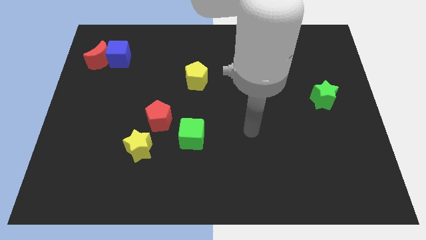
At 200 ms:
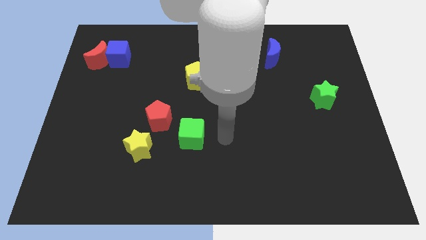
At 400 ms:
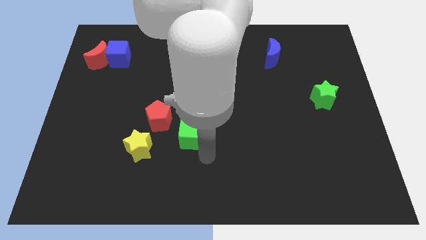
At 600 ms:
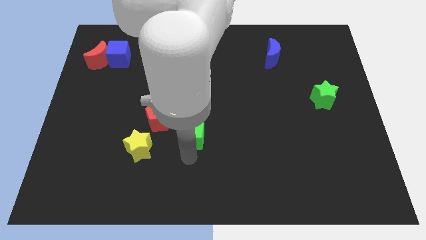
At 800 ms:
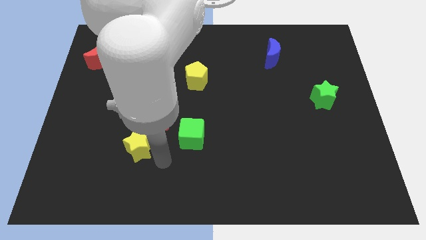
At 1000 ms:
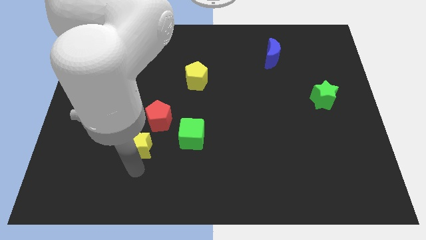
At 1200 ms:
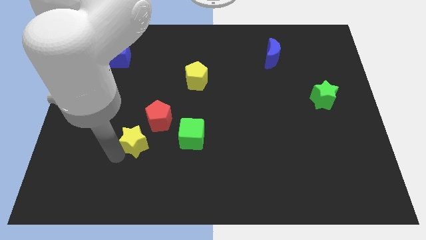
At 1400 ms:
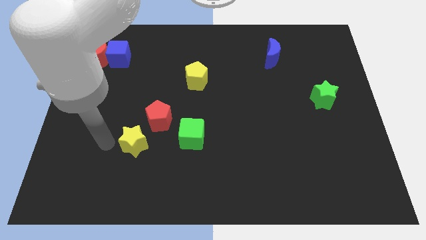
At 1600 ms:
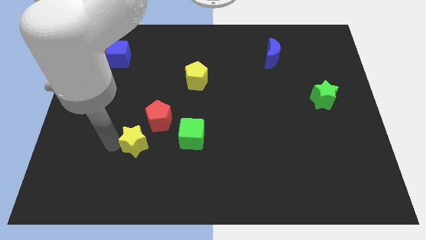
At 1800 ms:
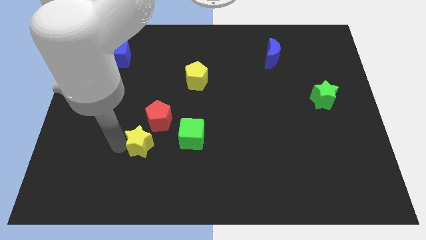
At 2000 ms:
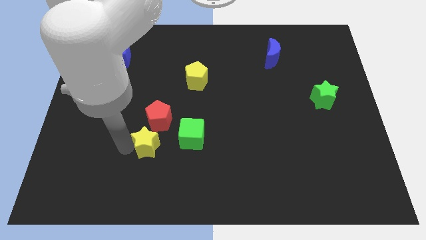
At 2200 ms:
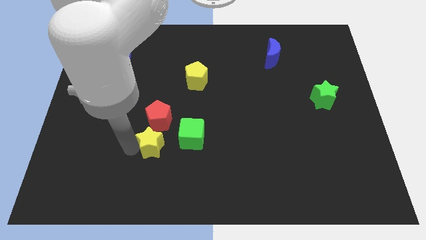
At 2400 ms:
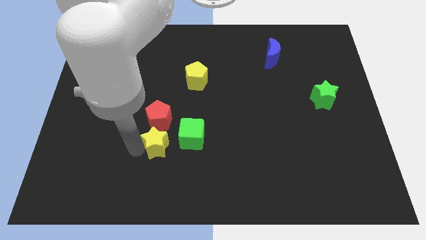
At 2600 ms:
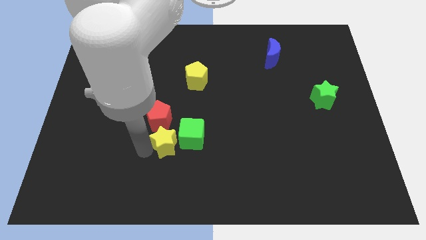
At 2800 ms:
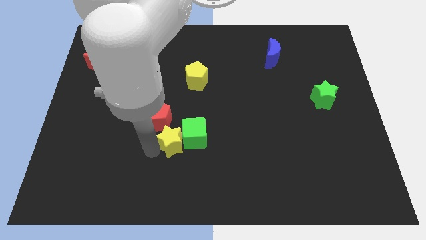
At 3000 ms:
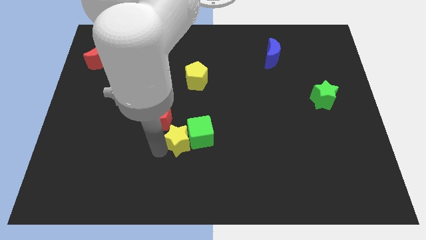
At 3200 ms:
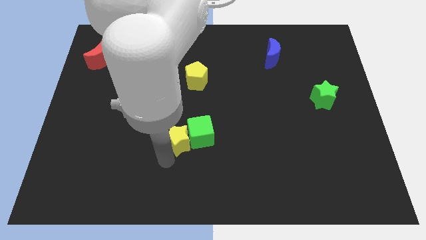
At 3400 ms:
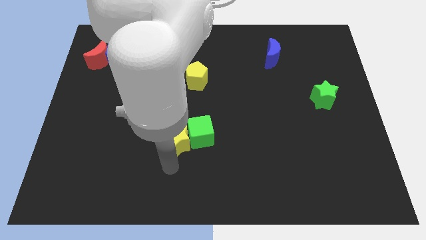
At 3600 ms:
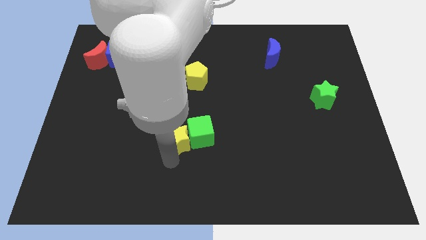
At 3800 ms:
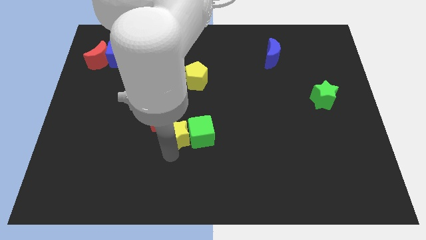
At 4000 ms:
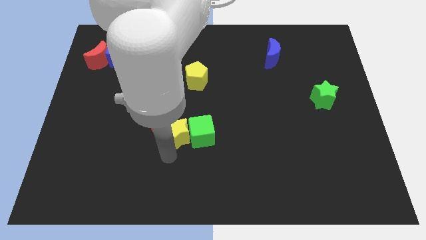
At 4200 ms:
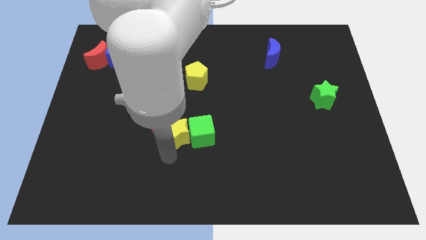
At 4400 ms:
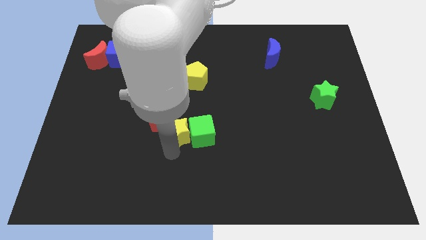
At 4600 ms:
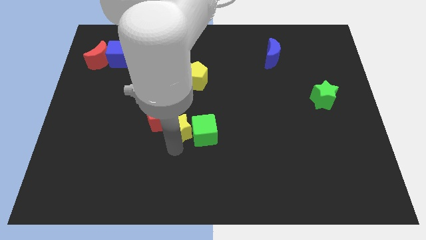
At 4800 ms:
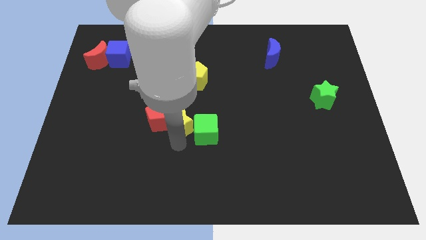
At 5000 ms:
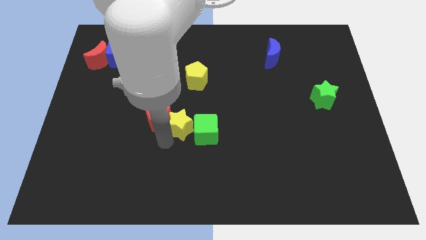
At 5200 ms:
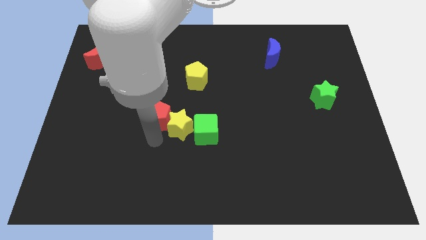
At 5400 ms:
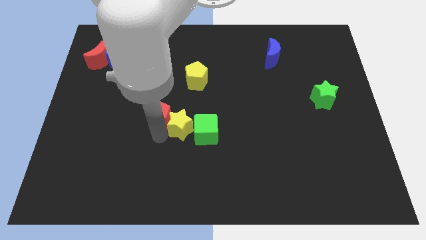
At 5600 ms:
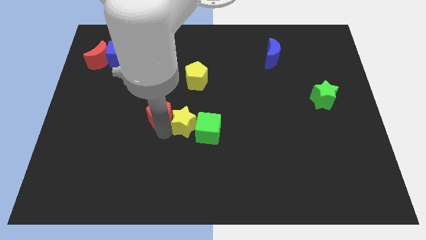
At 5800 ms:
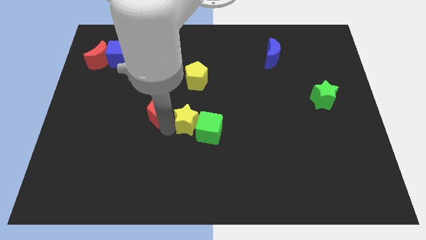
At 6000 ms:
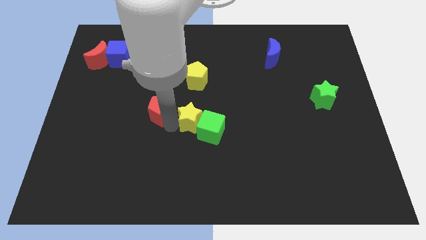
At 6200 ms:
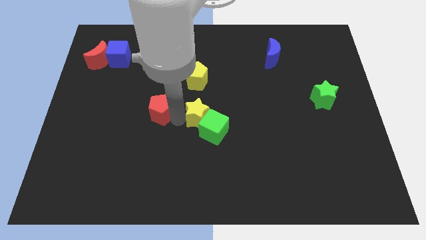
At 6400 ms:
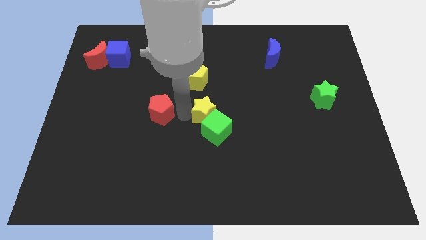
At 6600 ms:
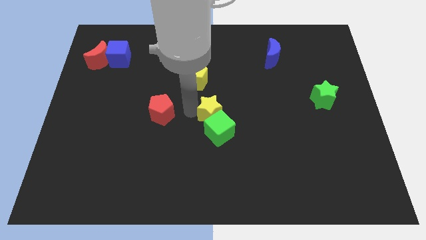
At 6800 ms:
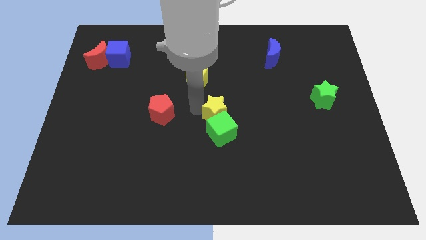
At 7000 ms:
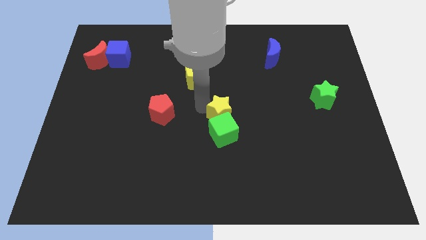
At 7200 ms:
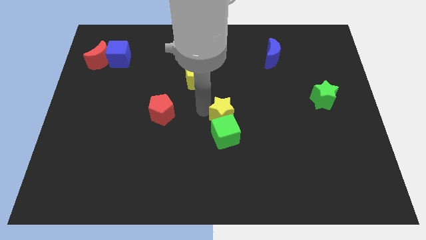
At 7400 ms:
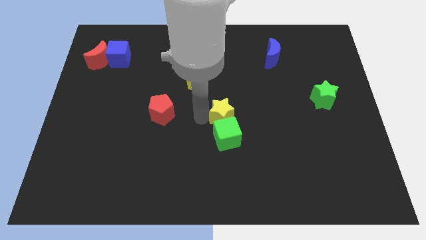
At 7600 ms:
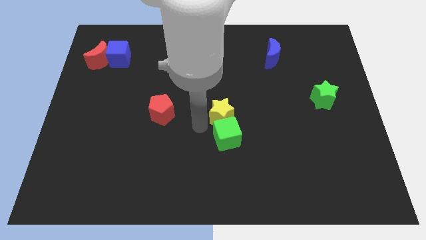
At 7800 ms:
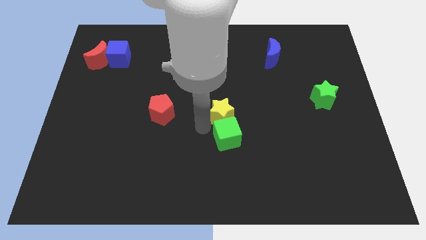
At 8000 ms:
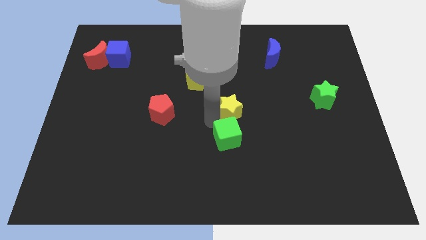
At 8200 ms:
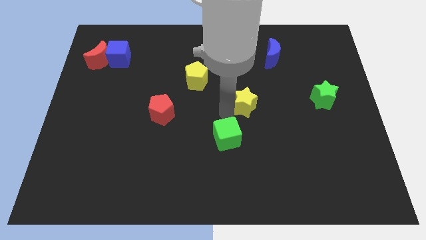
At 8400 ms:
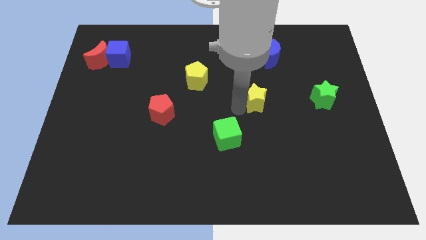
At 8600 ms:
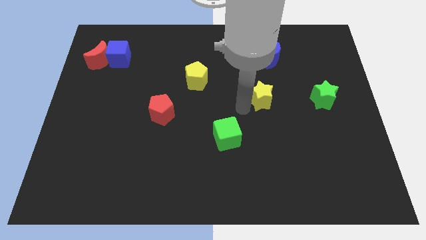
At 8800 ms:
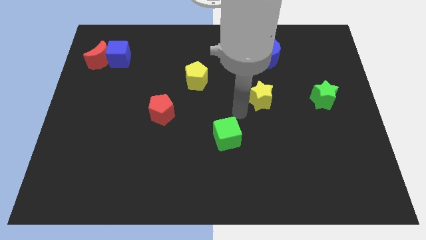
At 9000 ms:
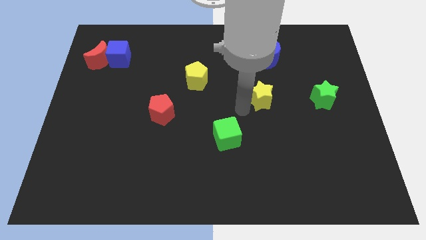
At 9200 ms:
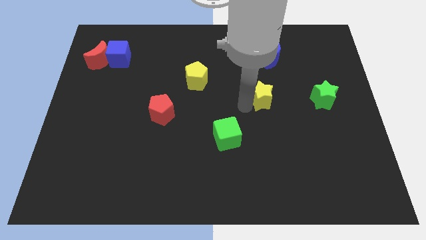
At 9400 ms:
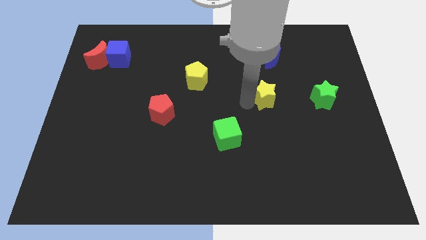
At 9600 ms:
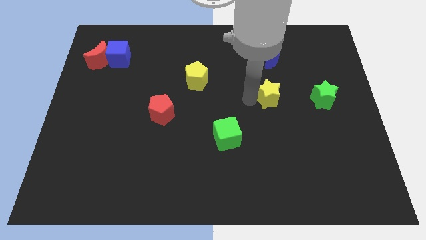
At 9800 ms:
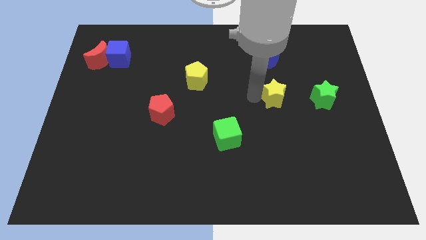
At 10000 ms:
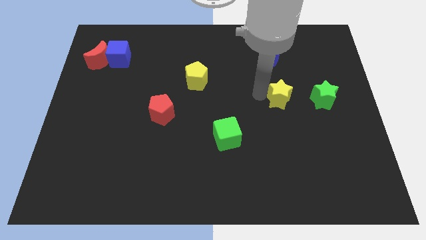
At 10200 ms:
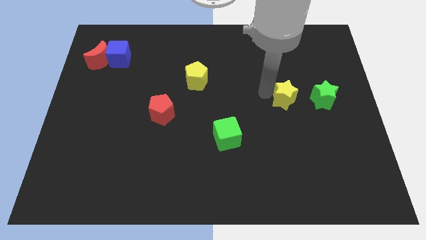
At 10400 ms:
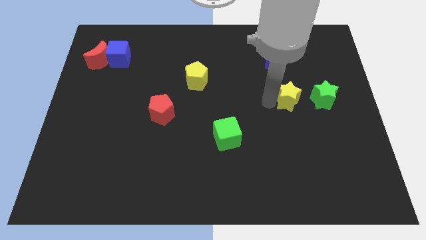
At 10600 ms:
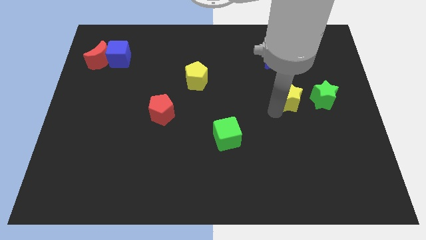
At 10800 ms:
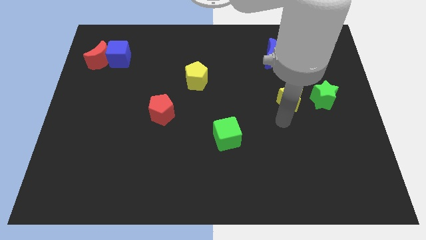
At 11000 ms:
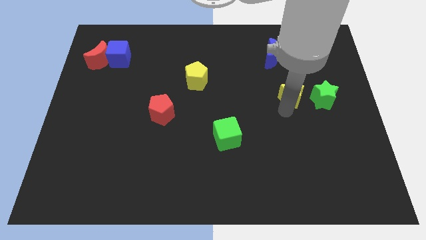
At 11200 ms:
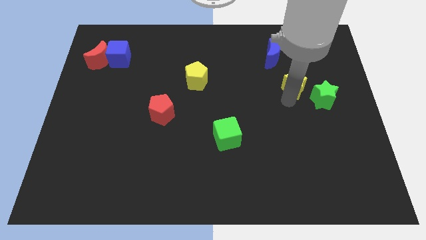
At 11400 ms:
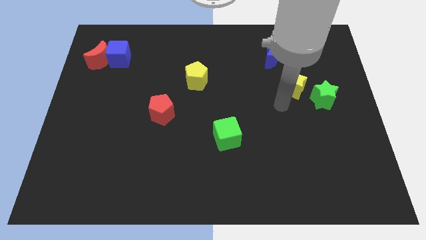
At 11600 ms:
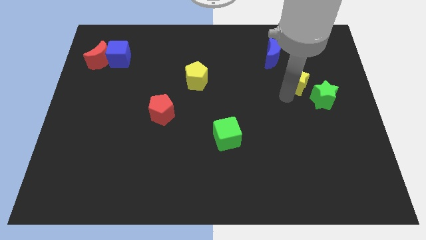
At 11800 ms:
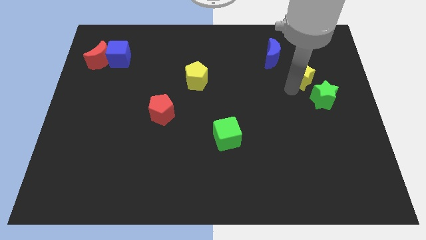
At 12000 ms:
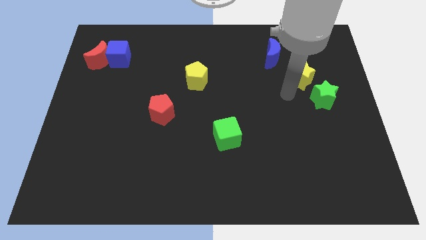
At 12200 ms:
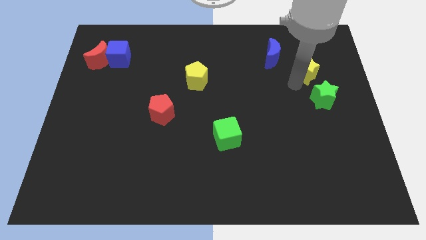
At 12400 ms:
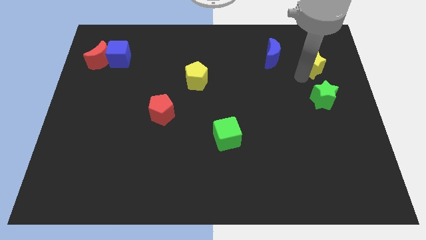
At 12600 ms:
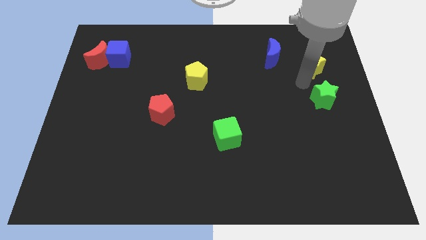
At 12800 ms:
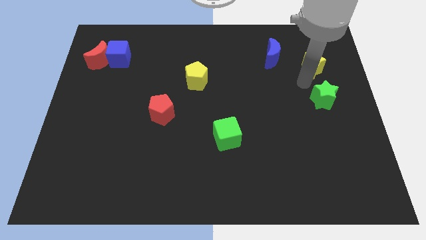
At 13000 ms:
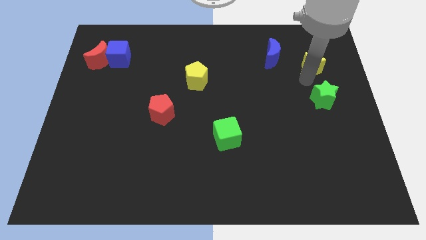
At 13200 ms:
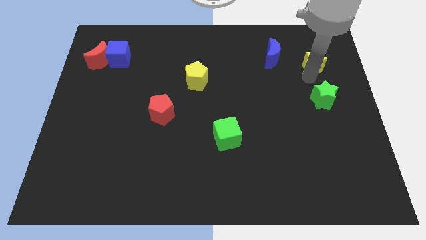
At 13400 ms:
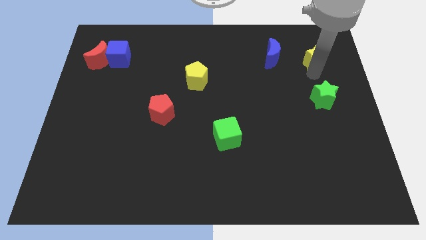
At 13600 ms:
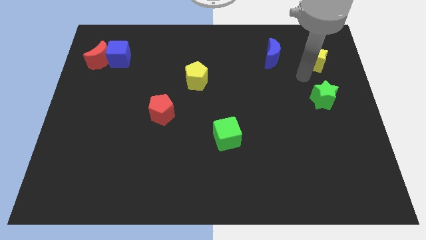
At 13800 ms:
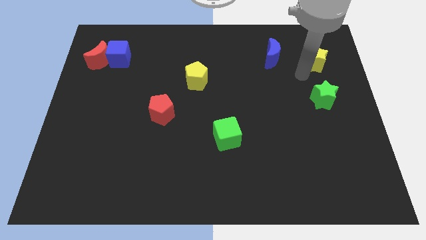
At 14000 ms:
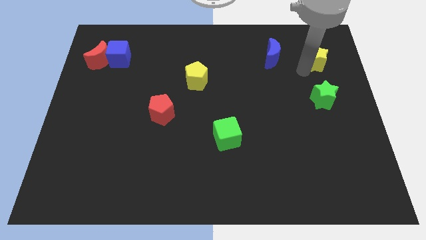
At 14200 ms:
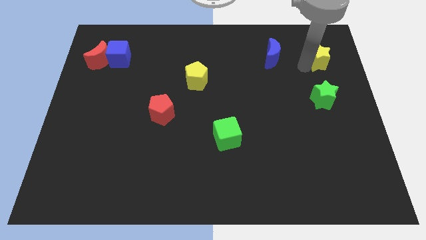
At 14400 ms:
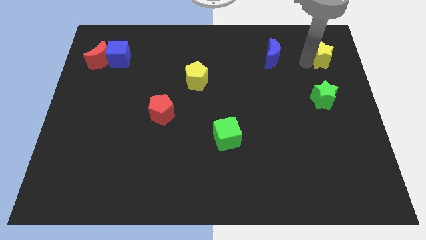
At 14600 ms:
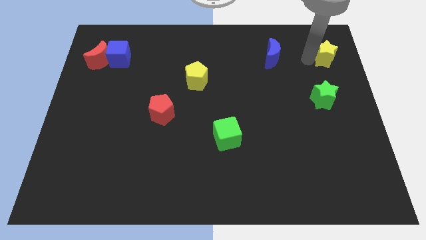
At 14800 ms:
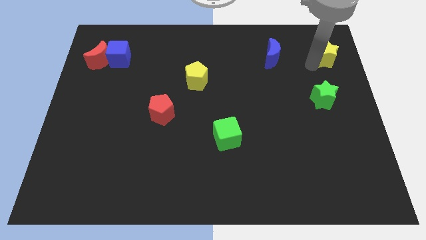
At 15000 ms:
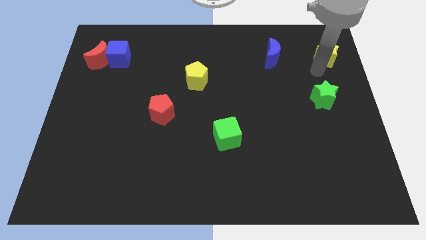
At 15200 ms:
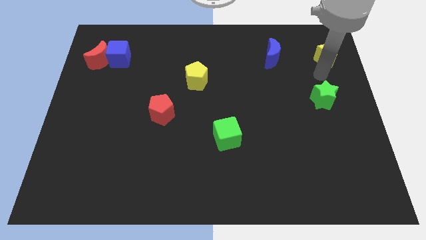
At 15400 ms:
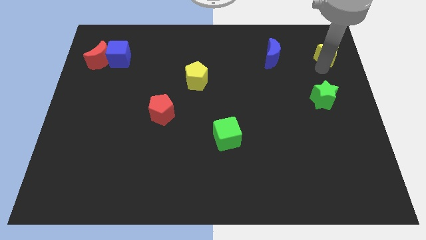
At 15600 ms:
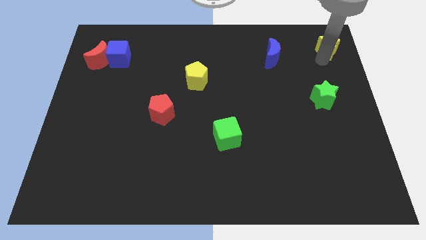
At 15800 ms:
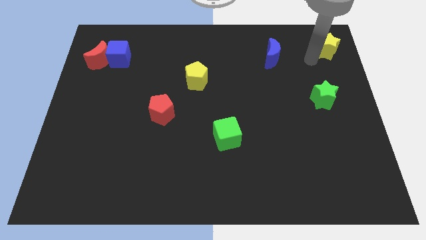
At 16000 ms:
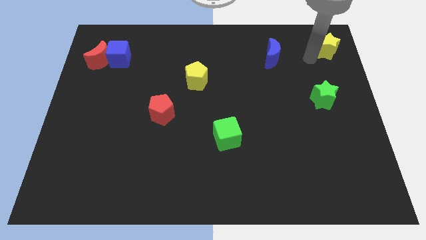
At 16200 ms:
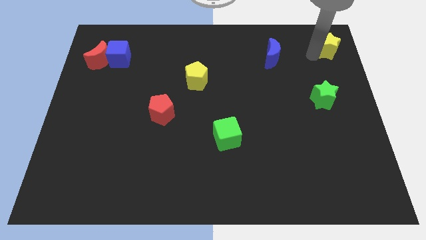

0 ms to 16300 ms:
move the yellow star to the top right of the board
